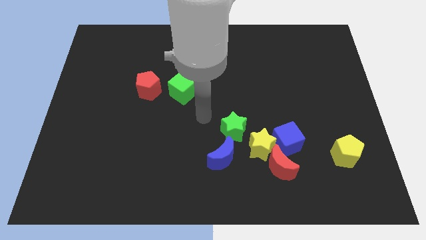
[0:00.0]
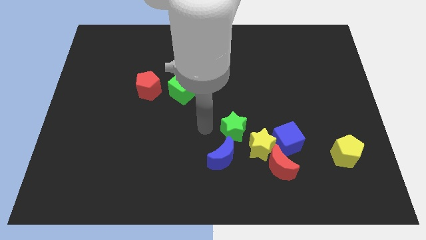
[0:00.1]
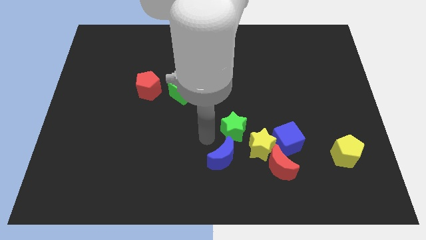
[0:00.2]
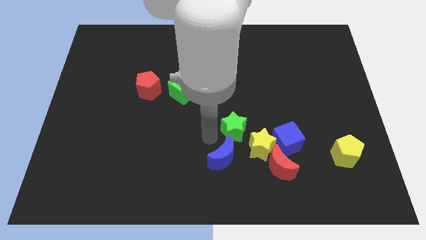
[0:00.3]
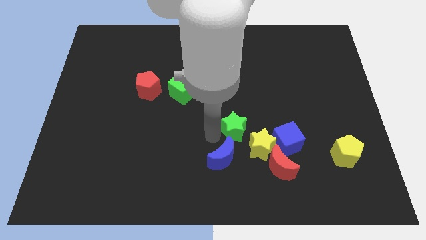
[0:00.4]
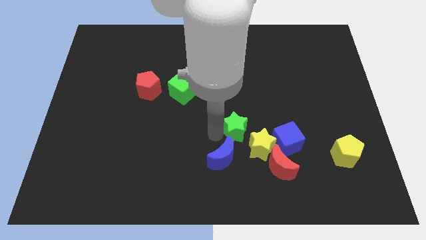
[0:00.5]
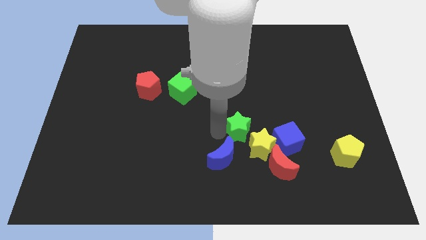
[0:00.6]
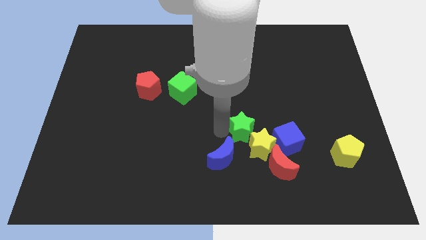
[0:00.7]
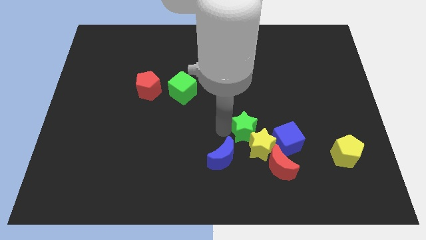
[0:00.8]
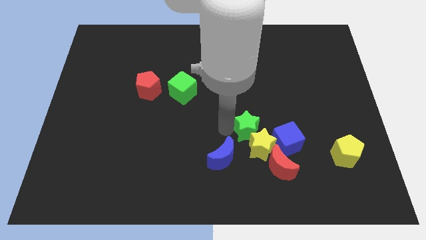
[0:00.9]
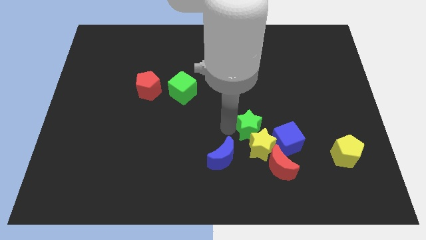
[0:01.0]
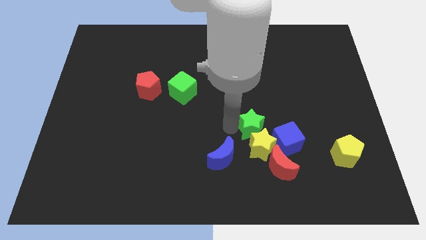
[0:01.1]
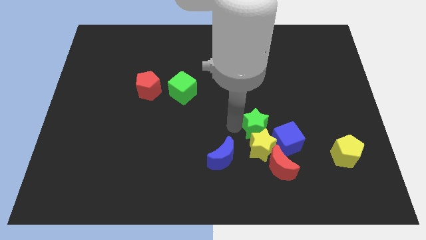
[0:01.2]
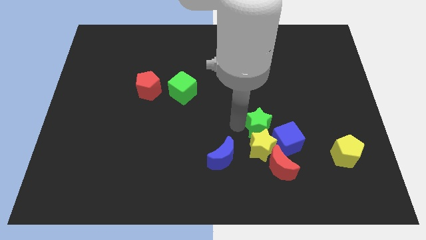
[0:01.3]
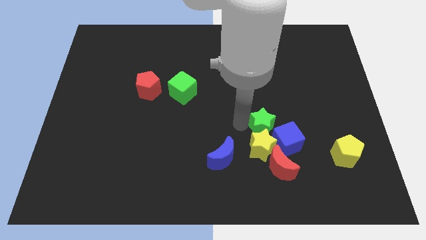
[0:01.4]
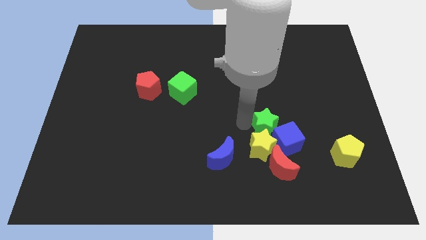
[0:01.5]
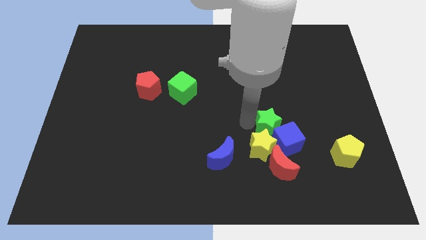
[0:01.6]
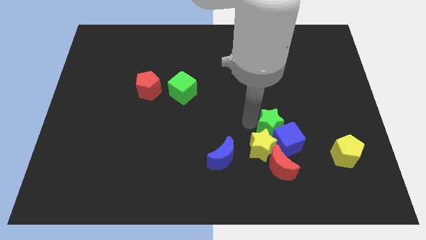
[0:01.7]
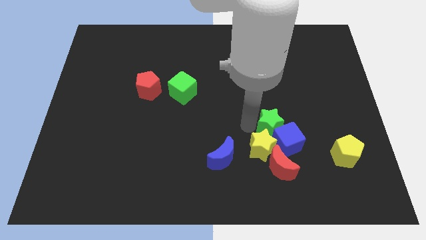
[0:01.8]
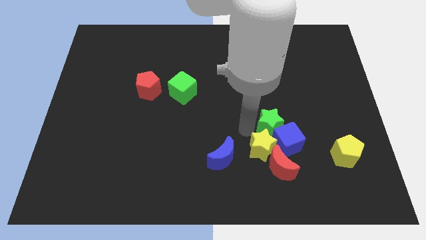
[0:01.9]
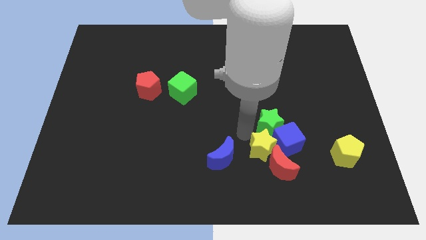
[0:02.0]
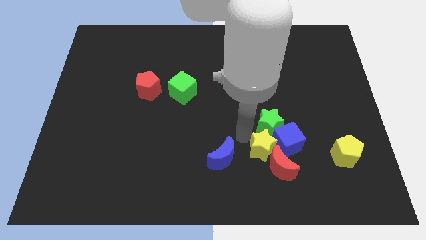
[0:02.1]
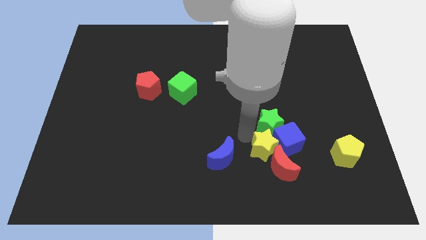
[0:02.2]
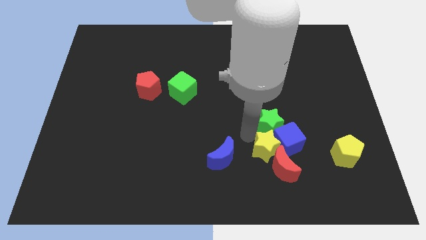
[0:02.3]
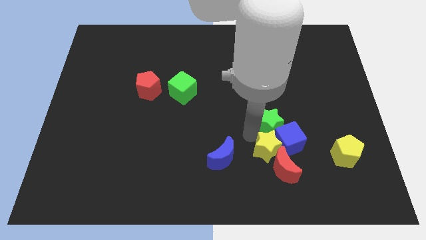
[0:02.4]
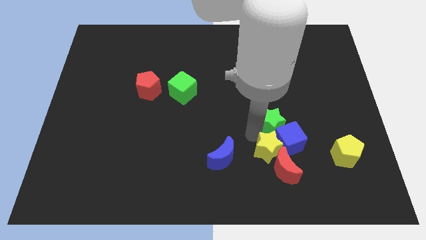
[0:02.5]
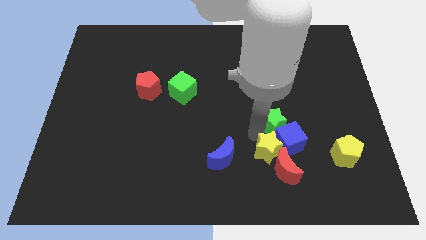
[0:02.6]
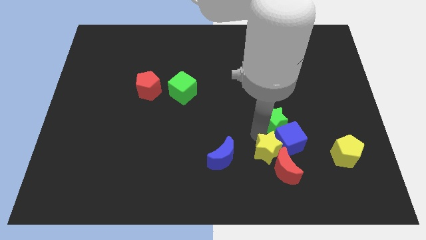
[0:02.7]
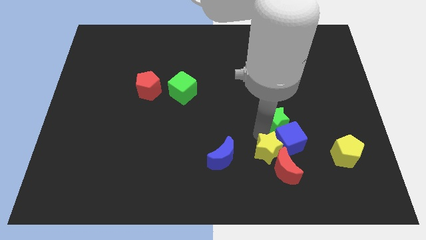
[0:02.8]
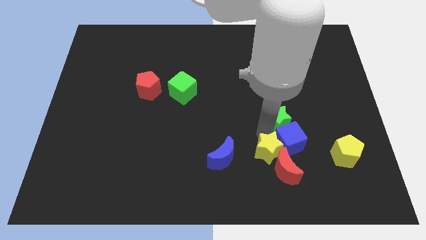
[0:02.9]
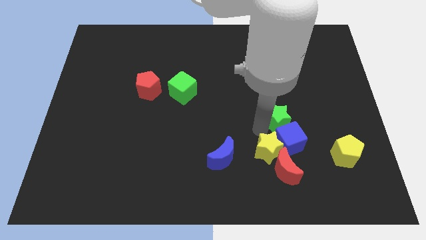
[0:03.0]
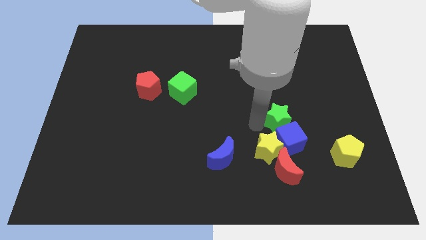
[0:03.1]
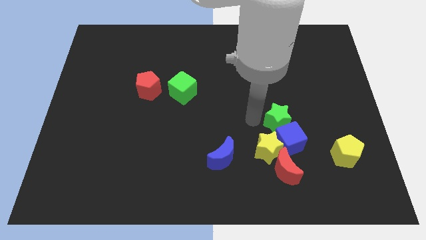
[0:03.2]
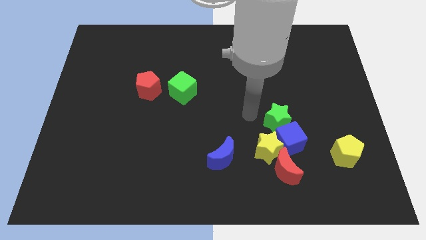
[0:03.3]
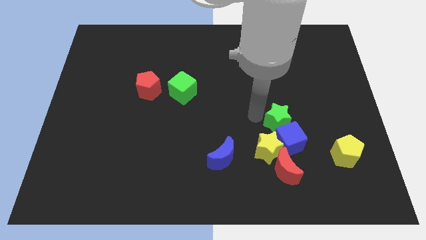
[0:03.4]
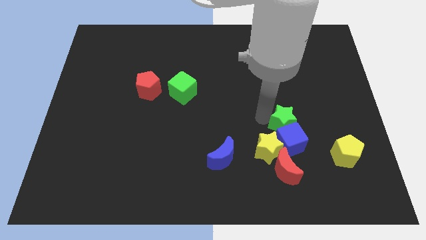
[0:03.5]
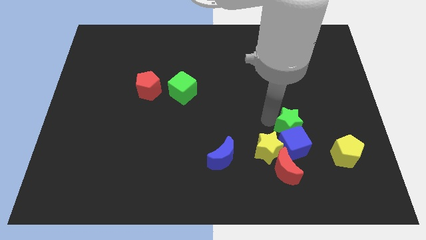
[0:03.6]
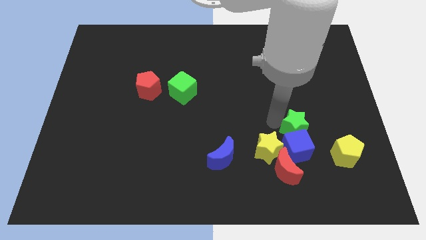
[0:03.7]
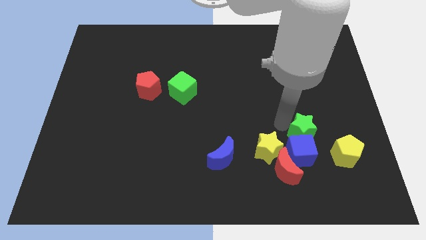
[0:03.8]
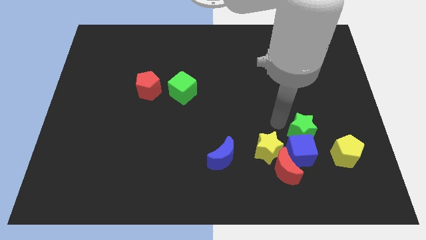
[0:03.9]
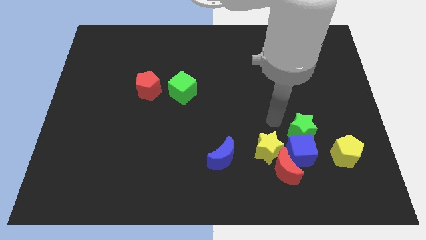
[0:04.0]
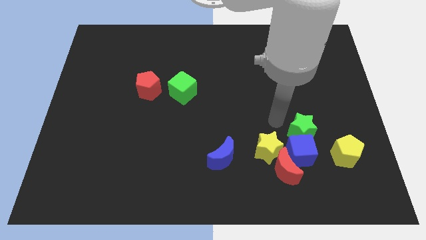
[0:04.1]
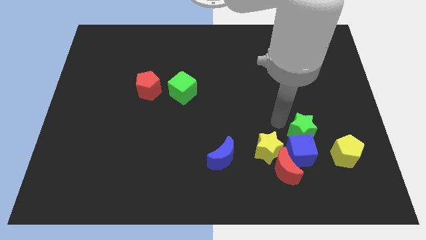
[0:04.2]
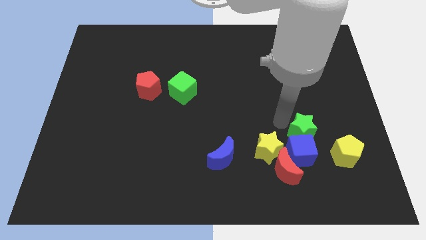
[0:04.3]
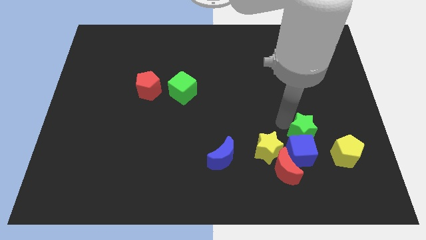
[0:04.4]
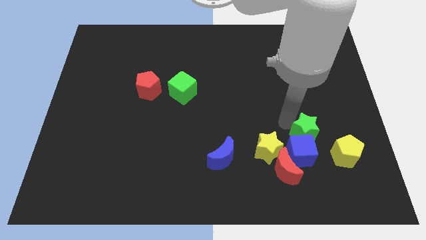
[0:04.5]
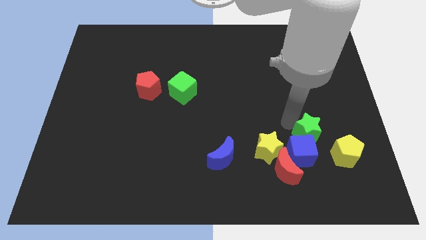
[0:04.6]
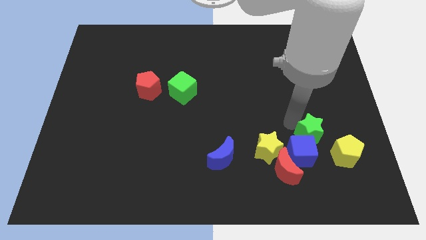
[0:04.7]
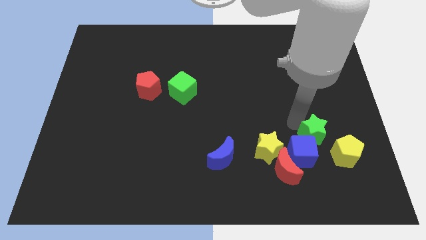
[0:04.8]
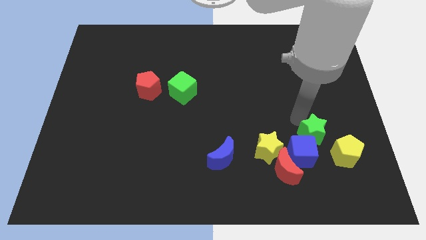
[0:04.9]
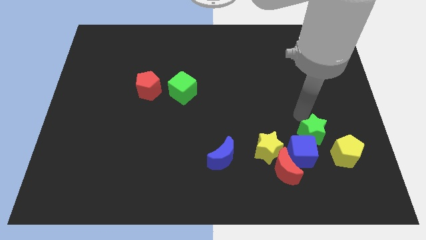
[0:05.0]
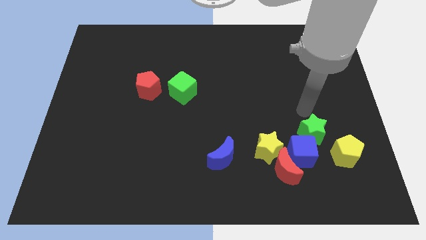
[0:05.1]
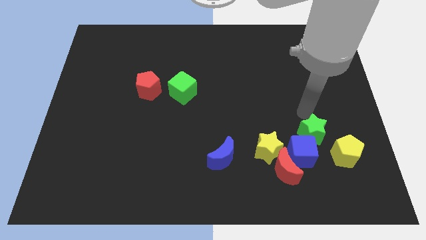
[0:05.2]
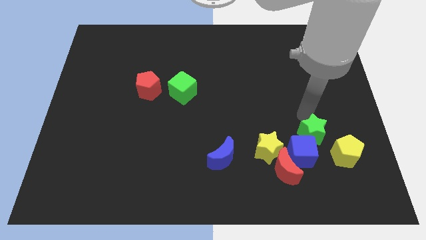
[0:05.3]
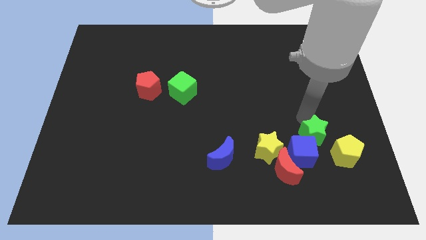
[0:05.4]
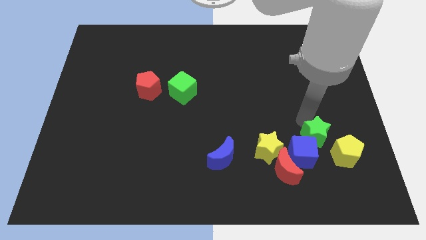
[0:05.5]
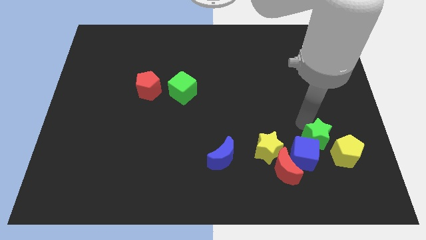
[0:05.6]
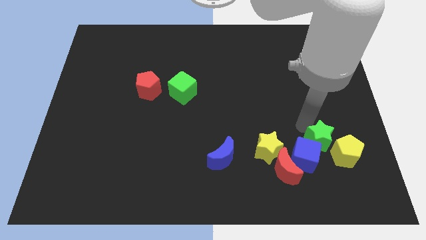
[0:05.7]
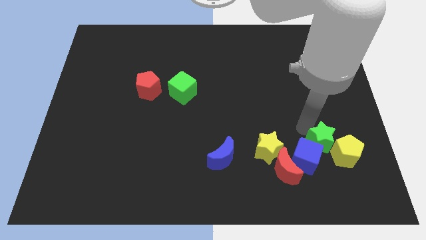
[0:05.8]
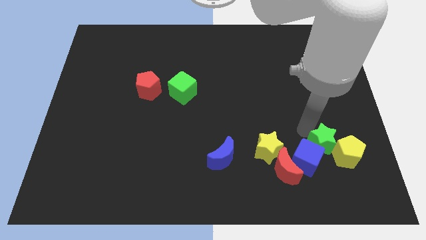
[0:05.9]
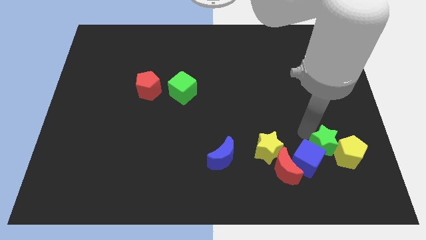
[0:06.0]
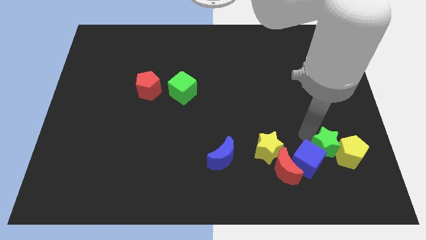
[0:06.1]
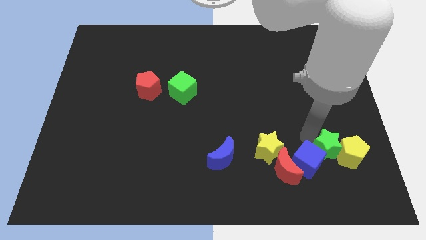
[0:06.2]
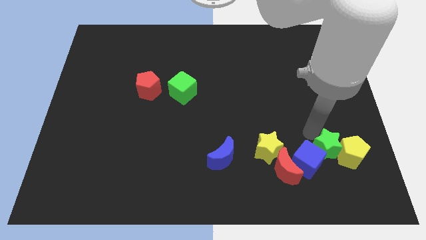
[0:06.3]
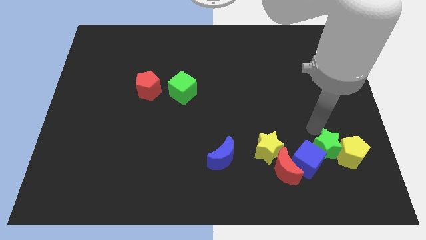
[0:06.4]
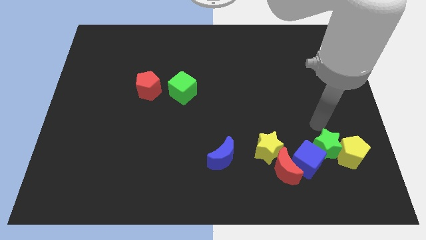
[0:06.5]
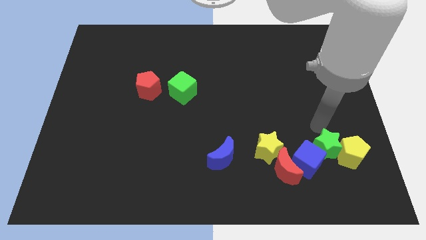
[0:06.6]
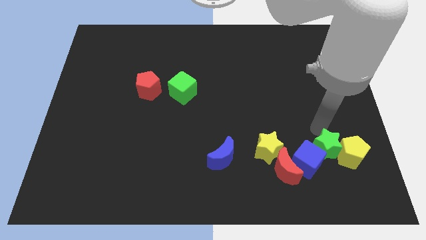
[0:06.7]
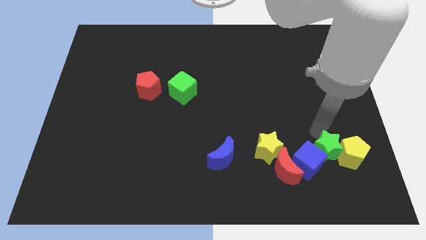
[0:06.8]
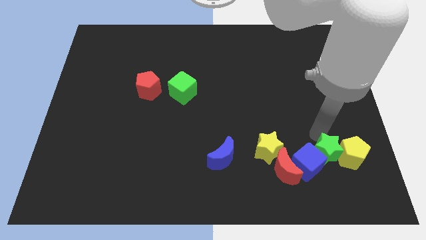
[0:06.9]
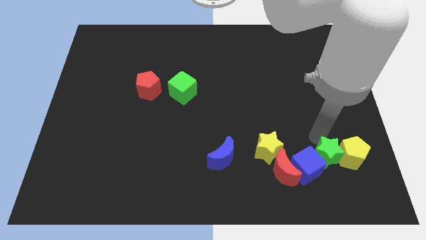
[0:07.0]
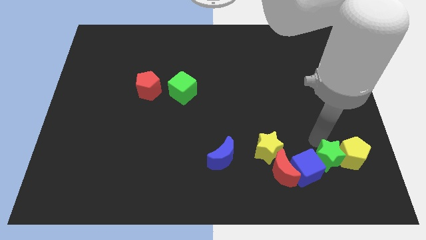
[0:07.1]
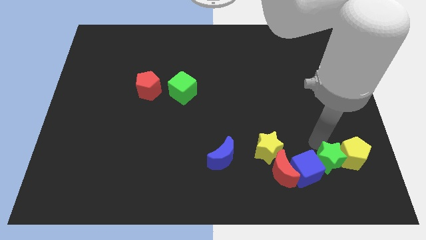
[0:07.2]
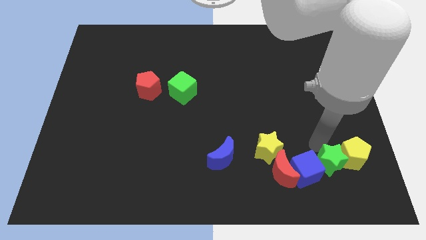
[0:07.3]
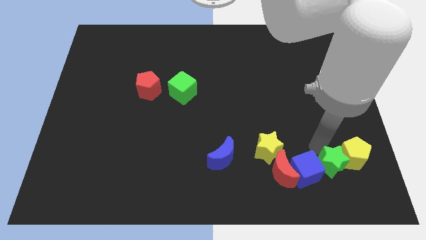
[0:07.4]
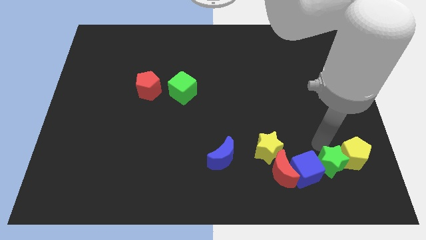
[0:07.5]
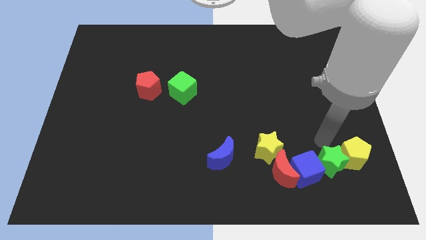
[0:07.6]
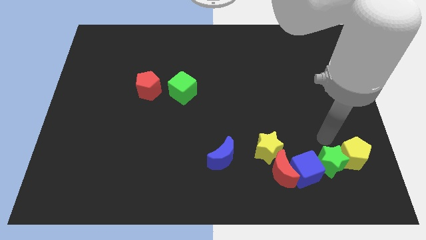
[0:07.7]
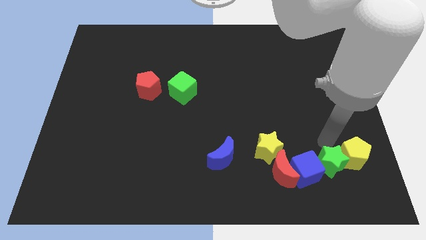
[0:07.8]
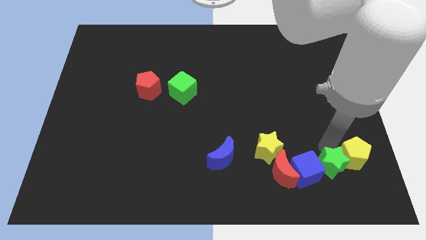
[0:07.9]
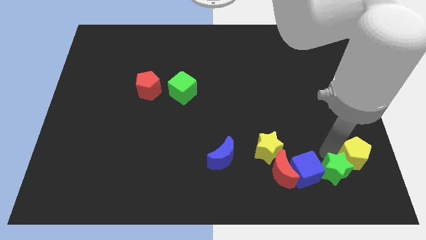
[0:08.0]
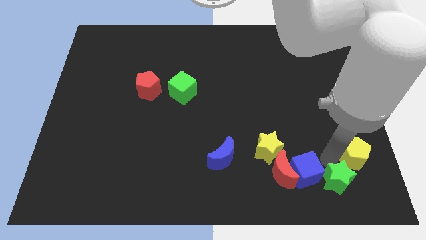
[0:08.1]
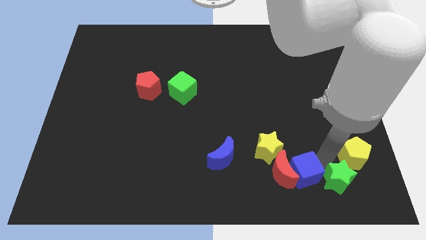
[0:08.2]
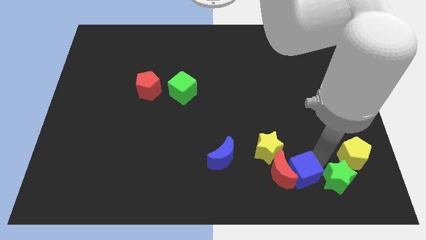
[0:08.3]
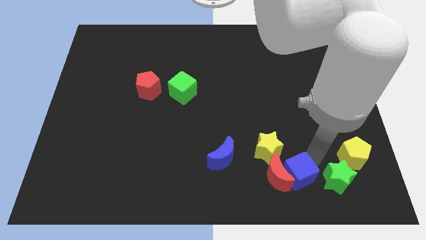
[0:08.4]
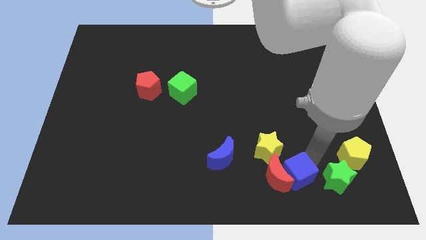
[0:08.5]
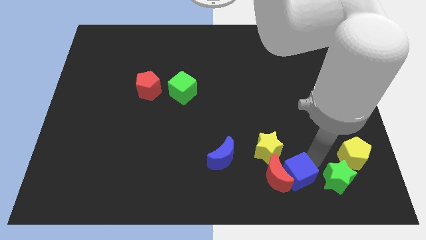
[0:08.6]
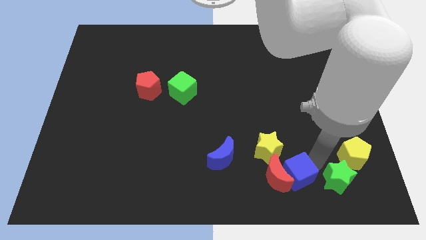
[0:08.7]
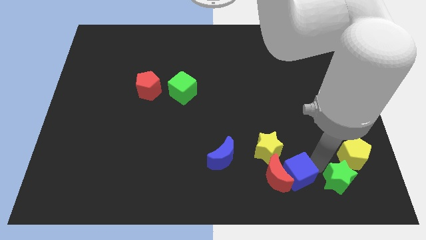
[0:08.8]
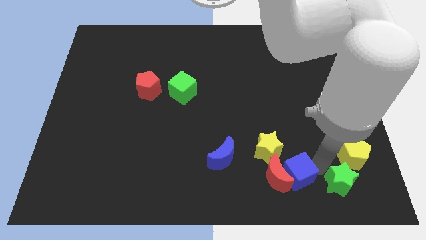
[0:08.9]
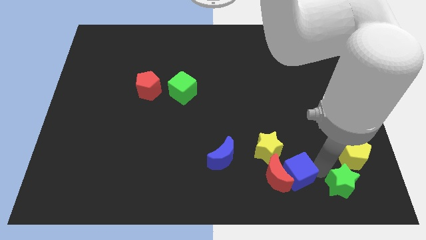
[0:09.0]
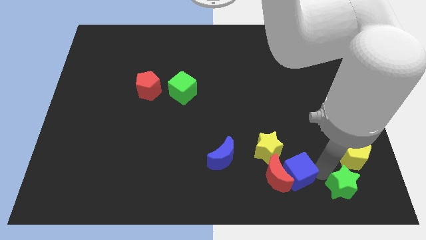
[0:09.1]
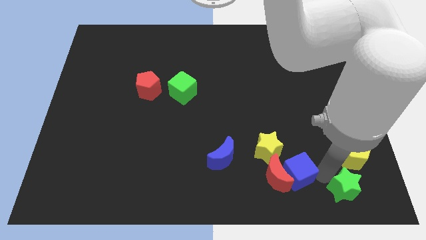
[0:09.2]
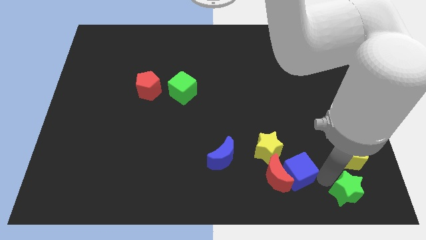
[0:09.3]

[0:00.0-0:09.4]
slide the green star to the bottom right of the board
